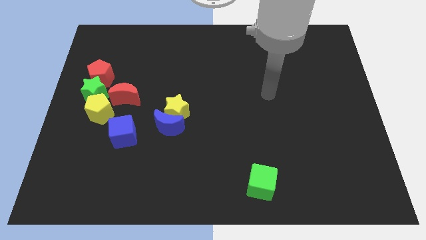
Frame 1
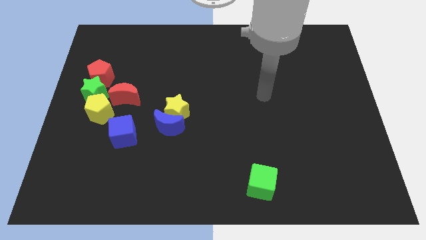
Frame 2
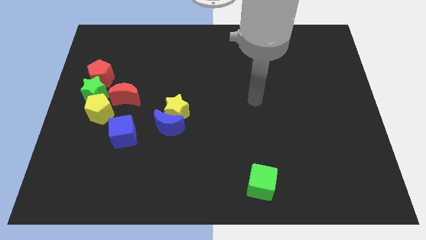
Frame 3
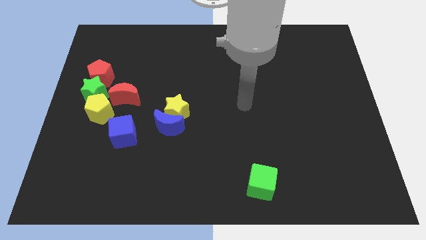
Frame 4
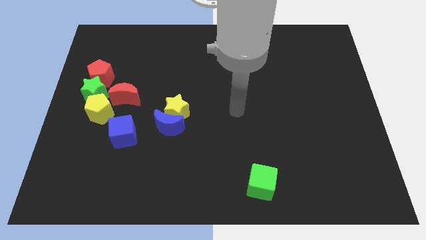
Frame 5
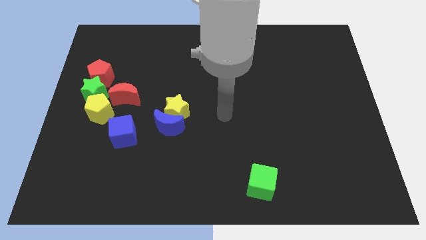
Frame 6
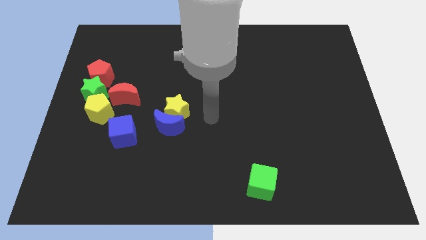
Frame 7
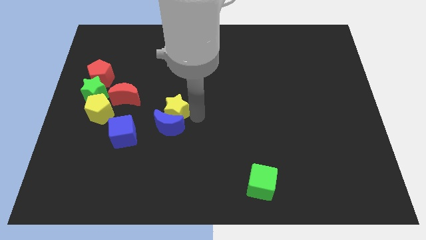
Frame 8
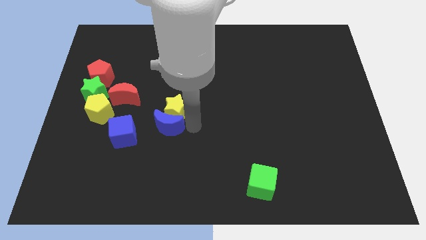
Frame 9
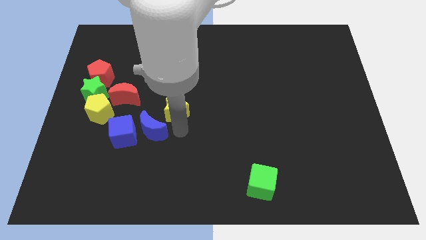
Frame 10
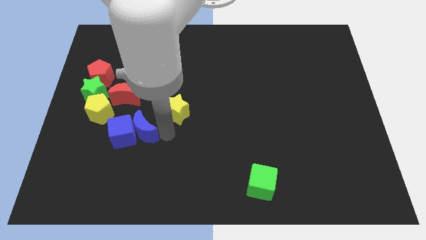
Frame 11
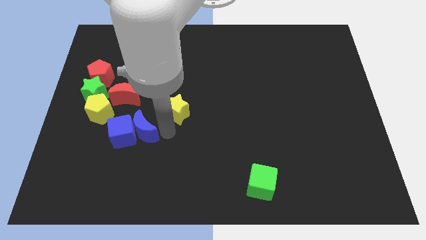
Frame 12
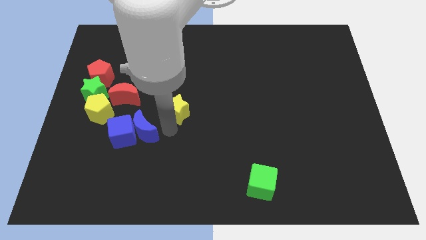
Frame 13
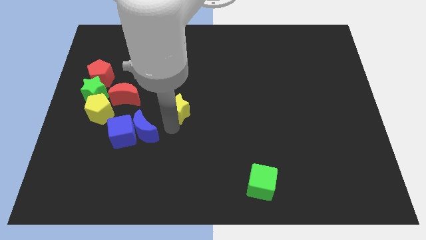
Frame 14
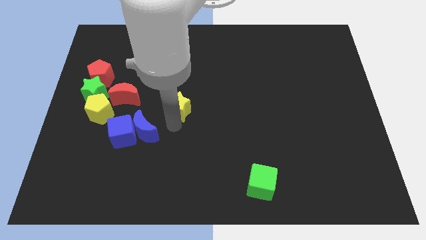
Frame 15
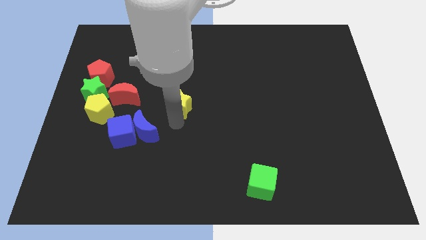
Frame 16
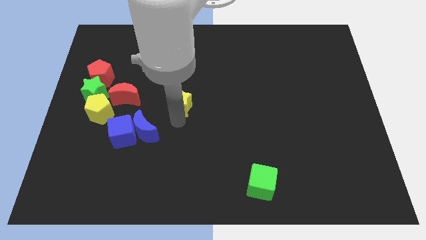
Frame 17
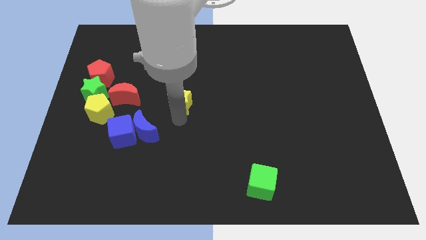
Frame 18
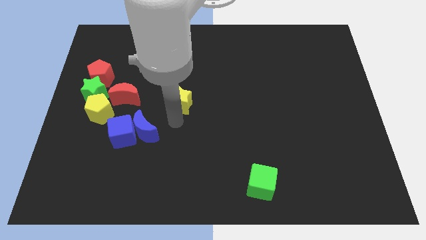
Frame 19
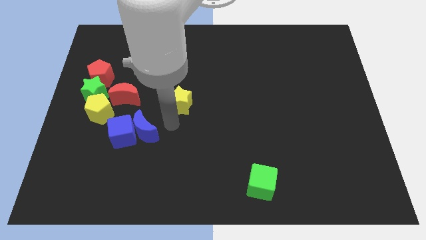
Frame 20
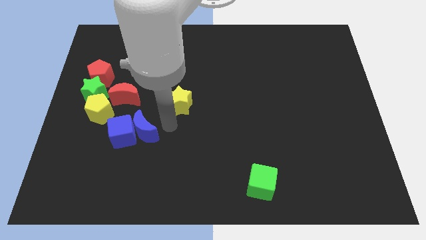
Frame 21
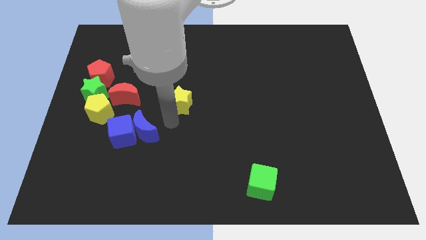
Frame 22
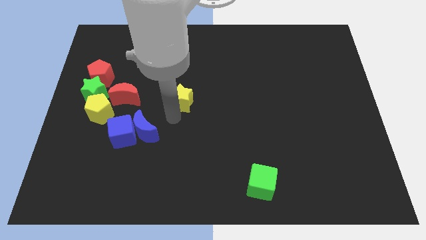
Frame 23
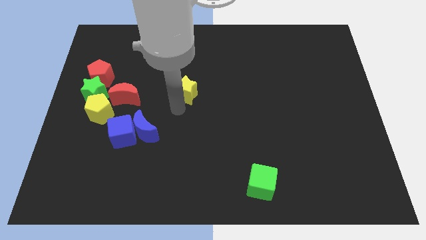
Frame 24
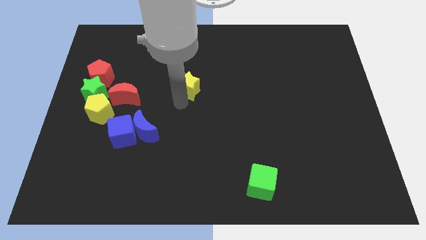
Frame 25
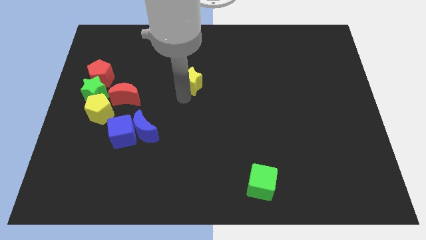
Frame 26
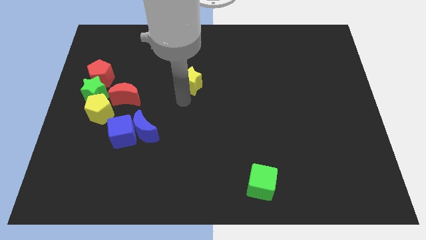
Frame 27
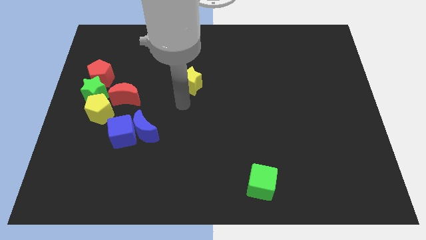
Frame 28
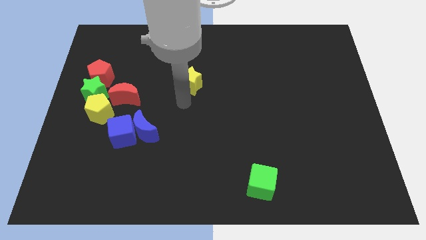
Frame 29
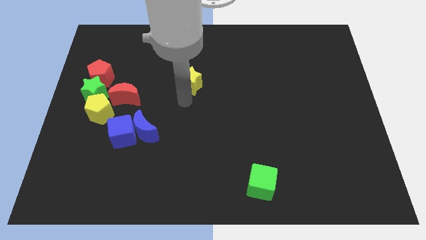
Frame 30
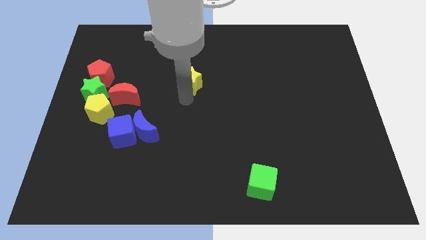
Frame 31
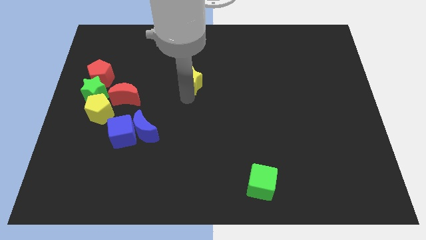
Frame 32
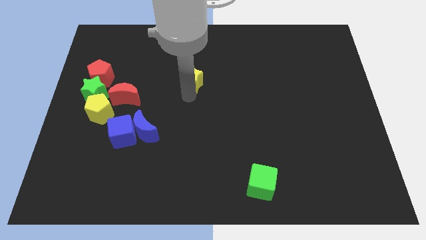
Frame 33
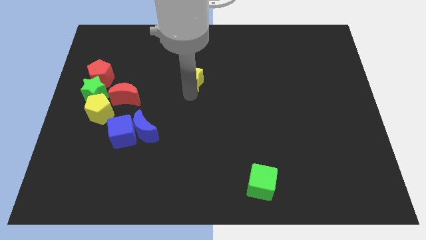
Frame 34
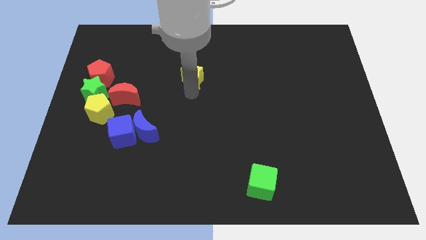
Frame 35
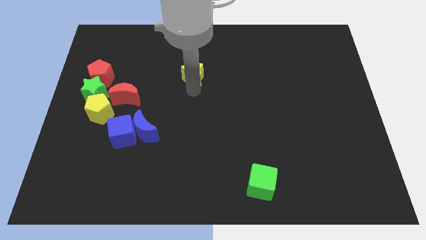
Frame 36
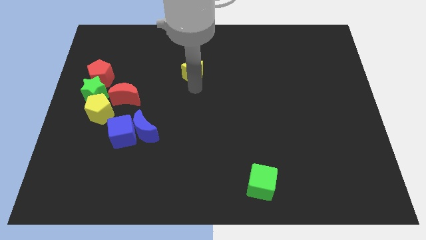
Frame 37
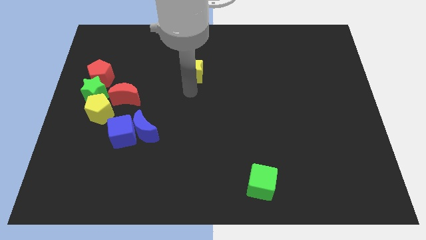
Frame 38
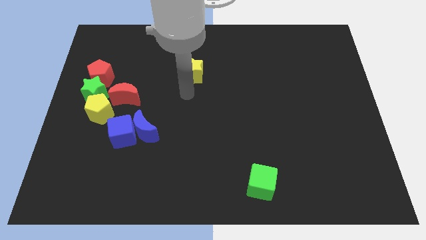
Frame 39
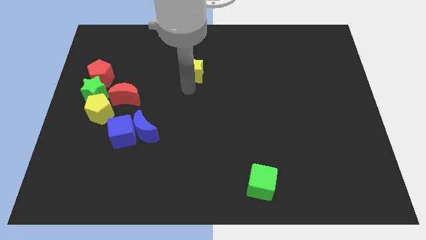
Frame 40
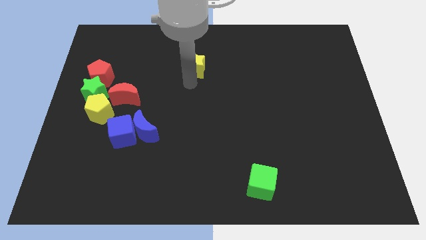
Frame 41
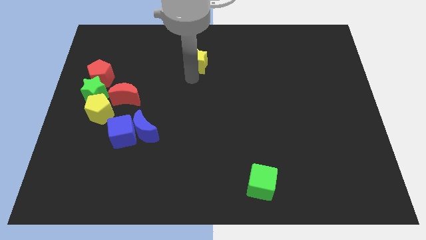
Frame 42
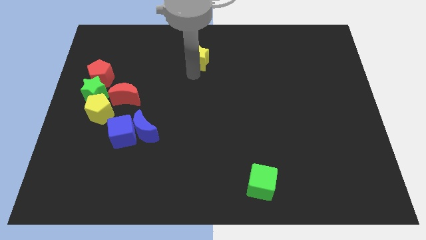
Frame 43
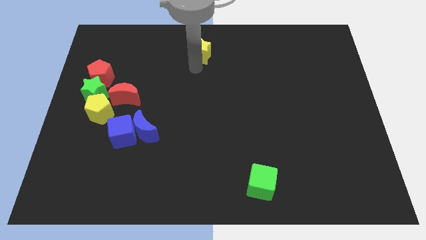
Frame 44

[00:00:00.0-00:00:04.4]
push the yellow star to the top side

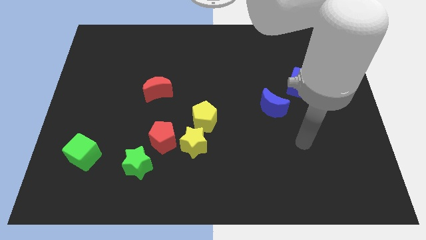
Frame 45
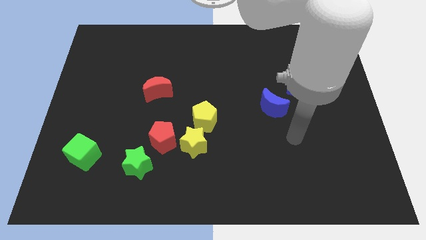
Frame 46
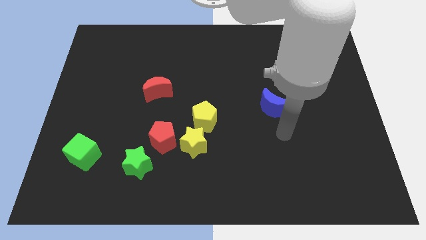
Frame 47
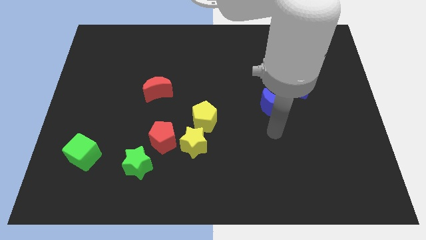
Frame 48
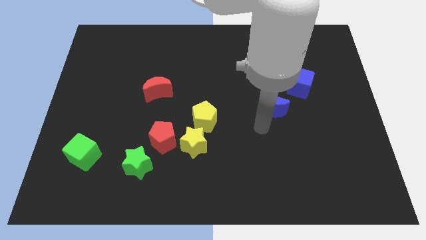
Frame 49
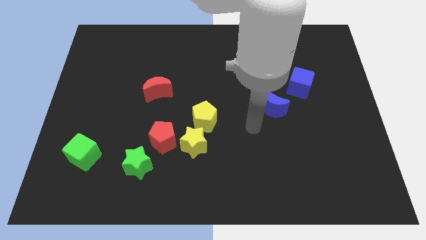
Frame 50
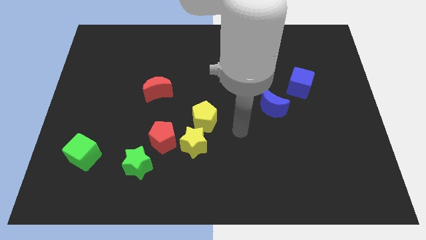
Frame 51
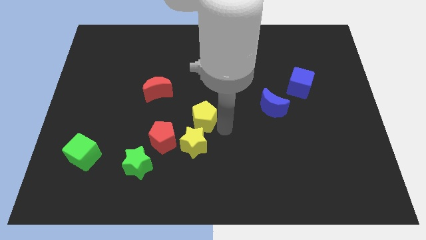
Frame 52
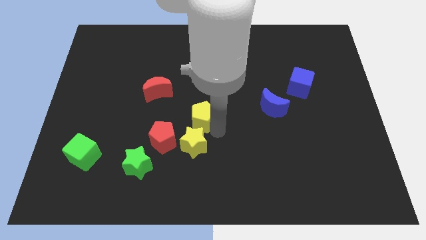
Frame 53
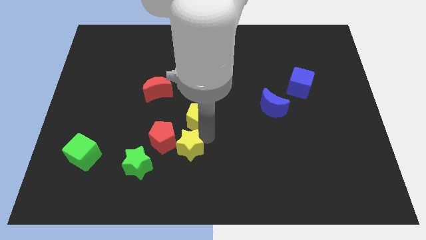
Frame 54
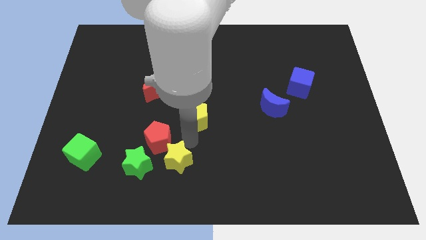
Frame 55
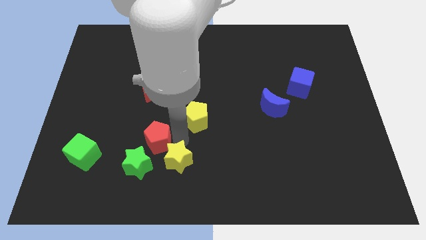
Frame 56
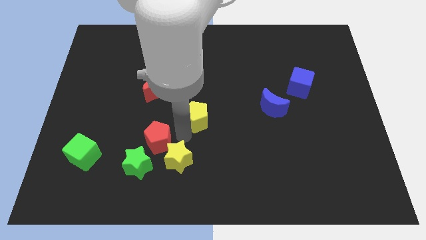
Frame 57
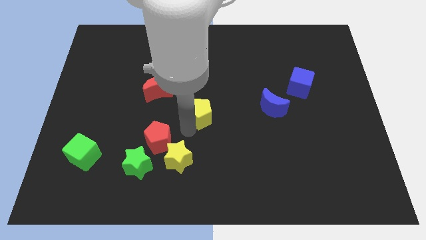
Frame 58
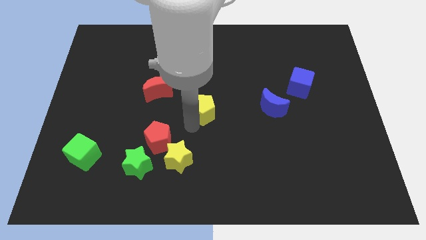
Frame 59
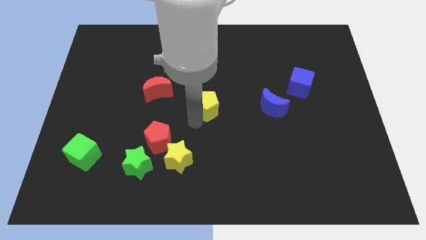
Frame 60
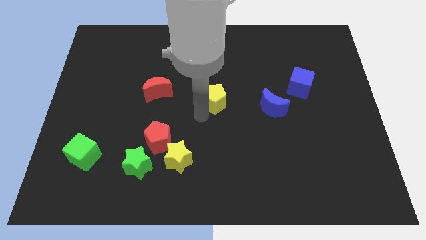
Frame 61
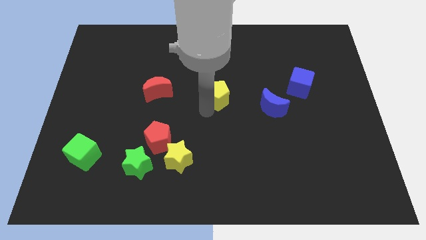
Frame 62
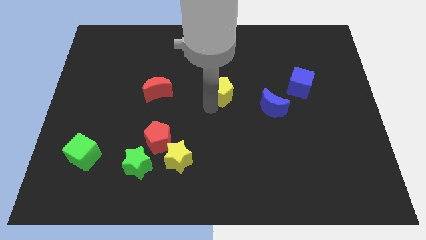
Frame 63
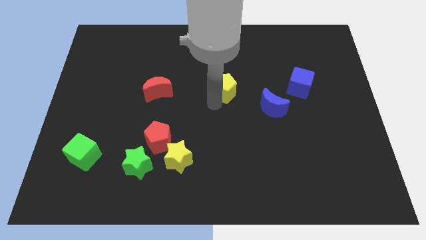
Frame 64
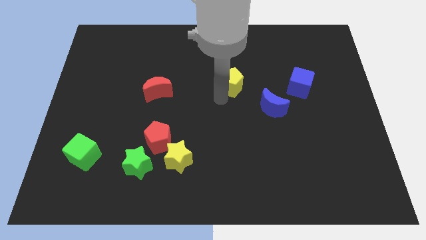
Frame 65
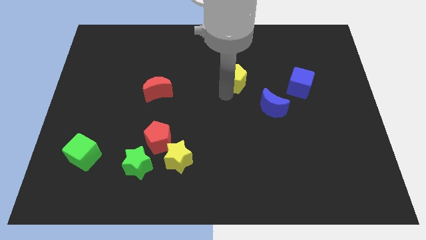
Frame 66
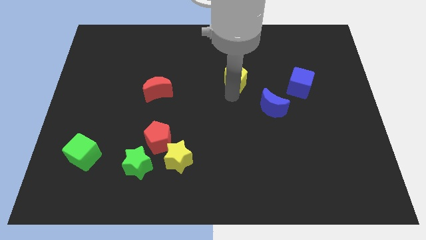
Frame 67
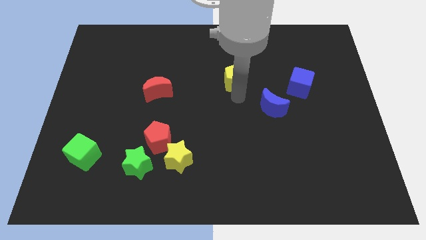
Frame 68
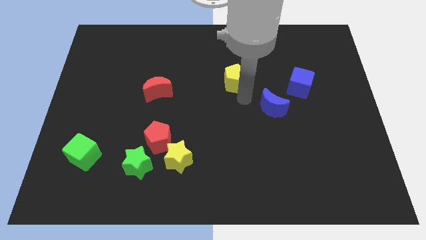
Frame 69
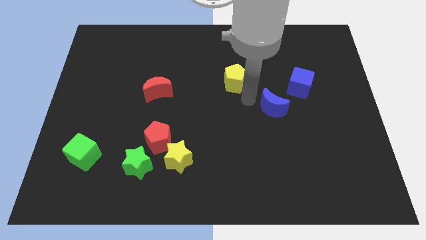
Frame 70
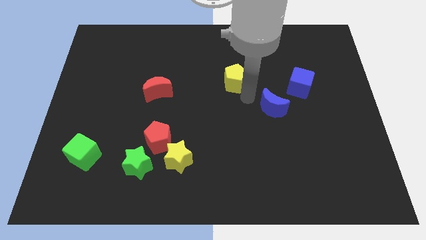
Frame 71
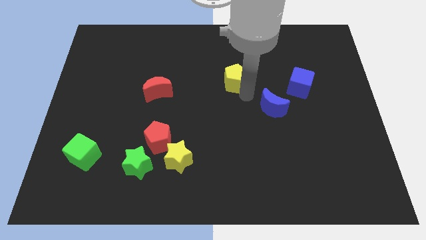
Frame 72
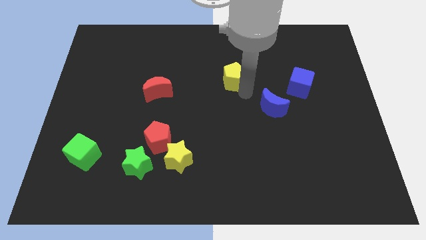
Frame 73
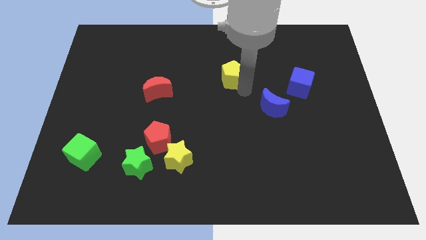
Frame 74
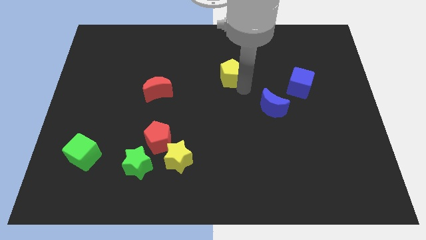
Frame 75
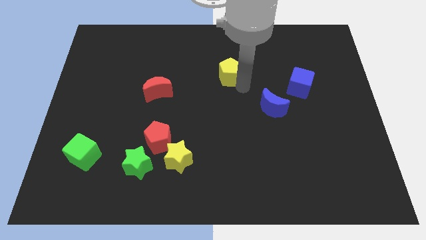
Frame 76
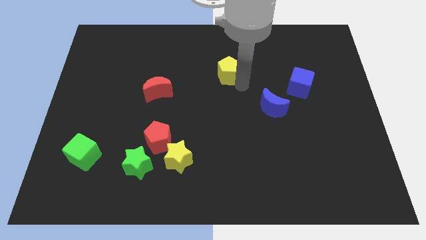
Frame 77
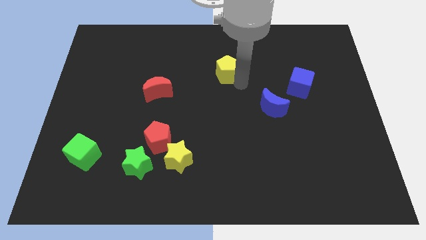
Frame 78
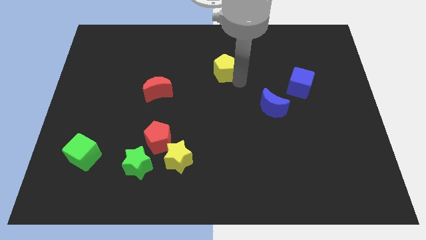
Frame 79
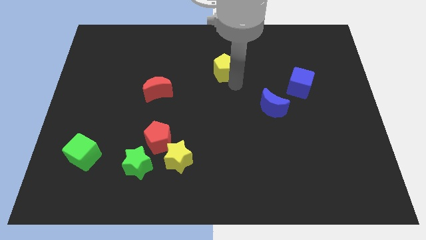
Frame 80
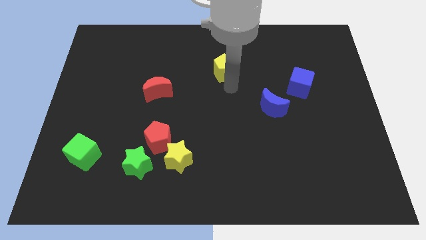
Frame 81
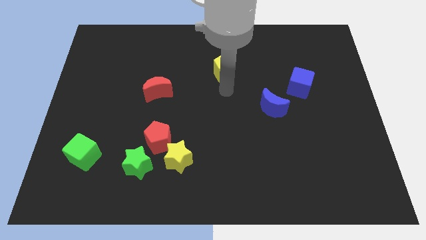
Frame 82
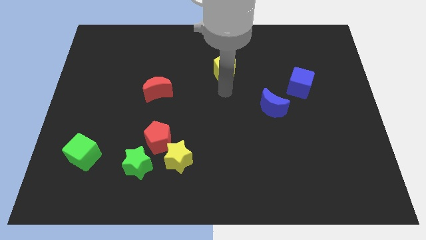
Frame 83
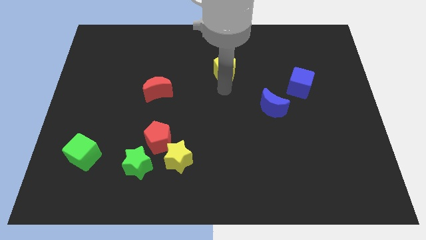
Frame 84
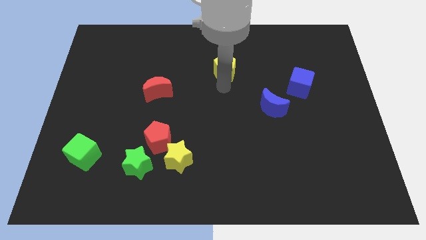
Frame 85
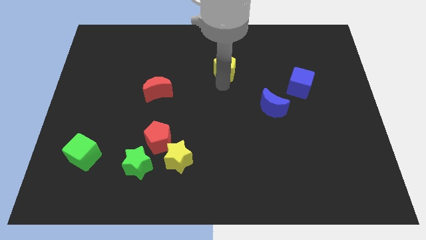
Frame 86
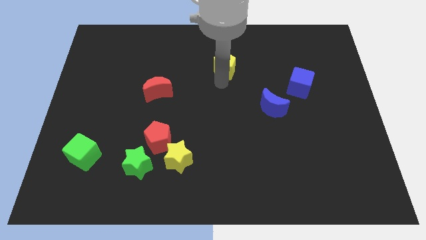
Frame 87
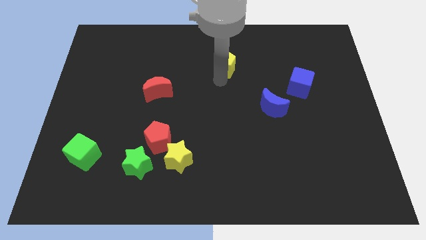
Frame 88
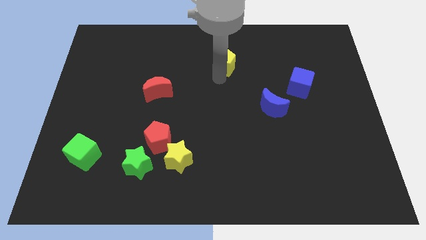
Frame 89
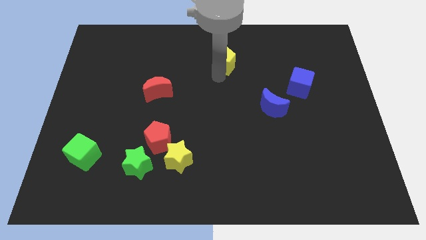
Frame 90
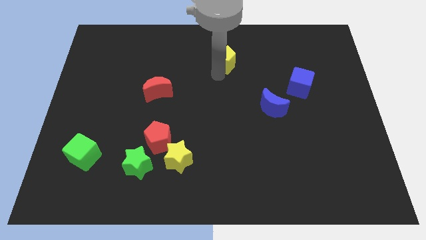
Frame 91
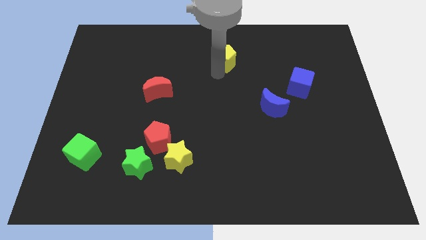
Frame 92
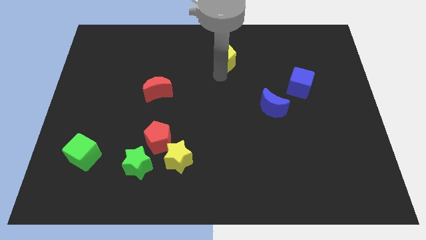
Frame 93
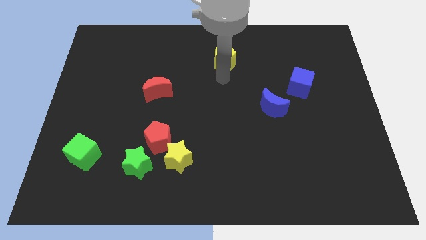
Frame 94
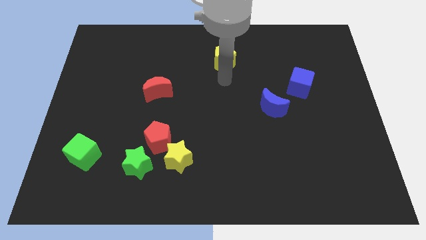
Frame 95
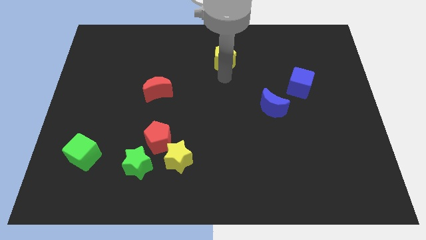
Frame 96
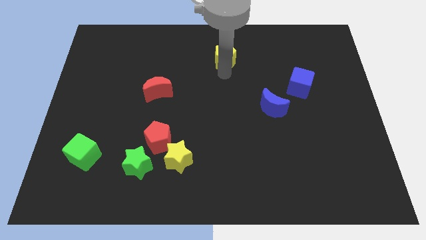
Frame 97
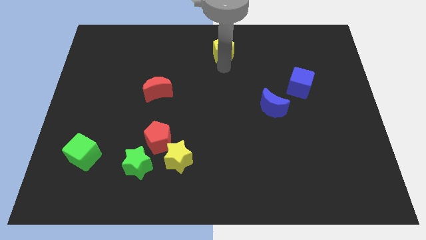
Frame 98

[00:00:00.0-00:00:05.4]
move the yellow pentagon to the towards your base
